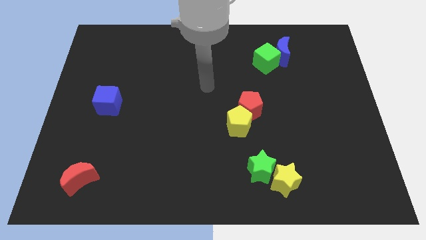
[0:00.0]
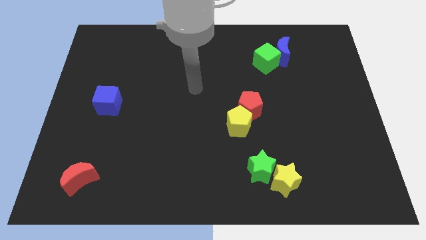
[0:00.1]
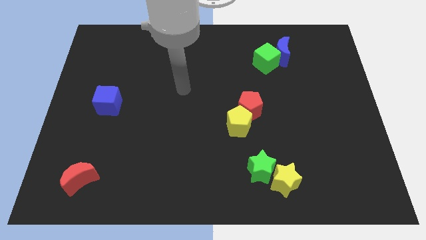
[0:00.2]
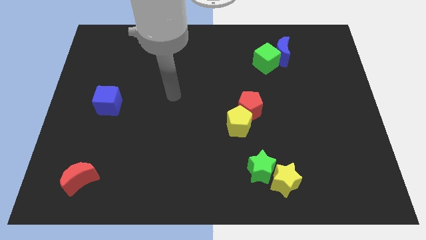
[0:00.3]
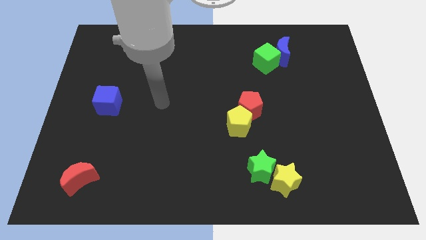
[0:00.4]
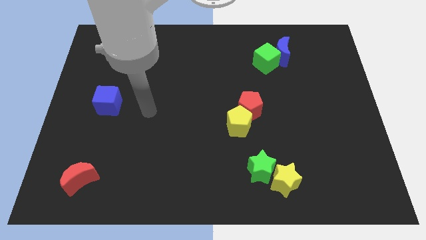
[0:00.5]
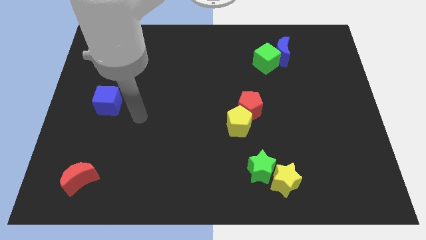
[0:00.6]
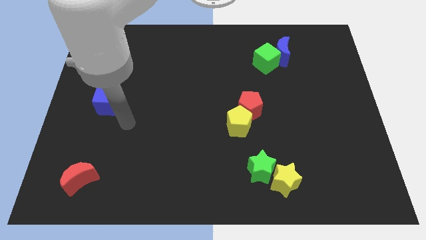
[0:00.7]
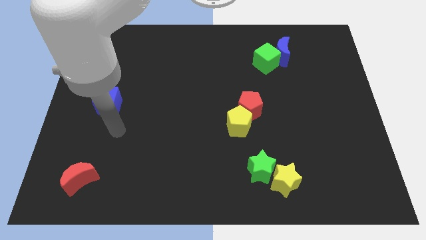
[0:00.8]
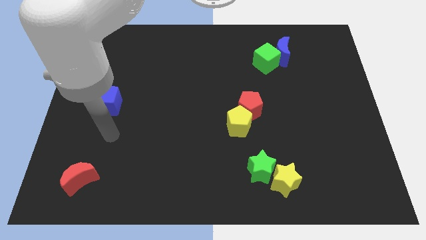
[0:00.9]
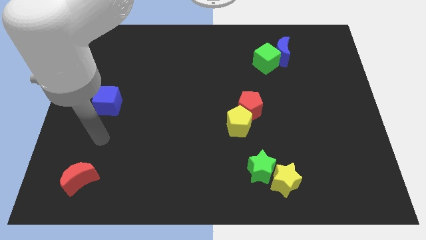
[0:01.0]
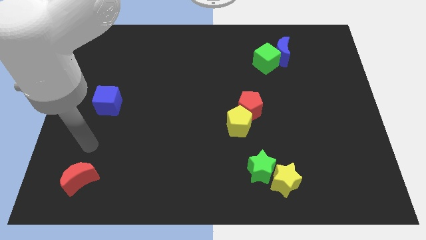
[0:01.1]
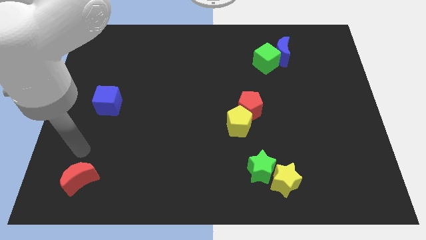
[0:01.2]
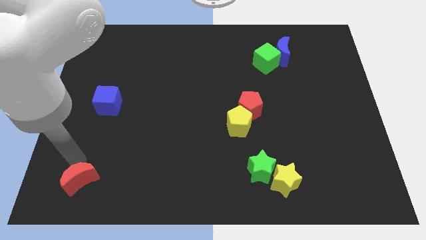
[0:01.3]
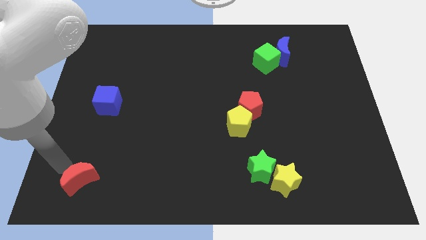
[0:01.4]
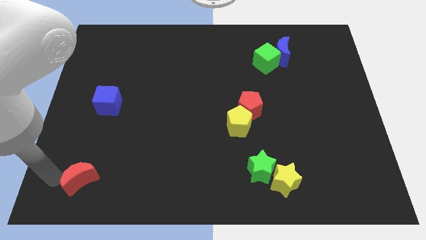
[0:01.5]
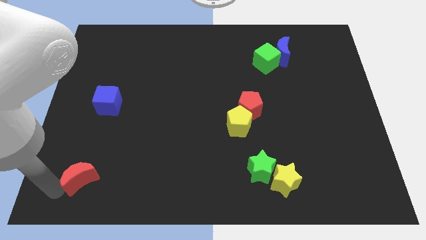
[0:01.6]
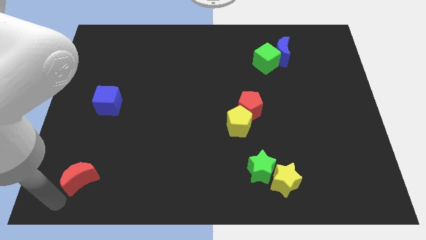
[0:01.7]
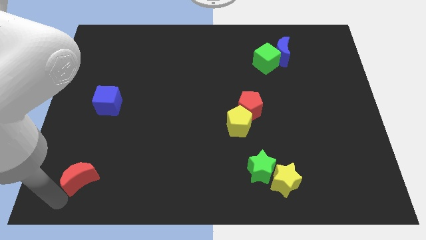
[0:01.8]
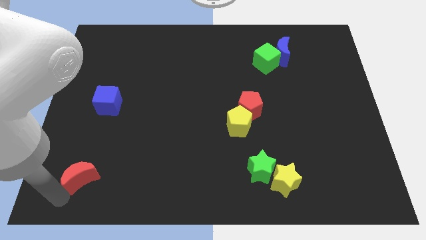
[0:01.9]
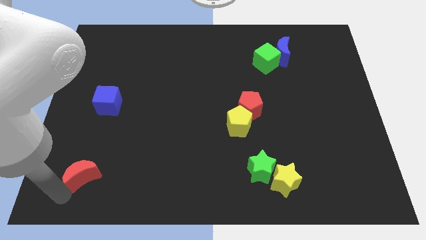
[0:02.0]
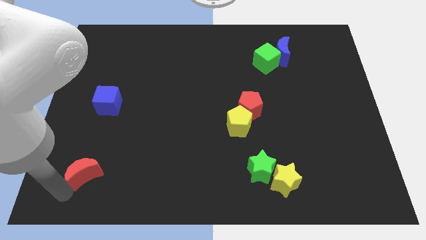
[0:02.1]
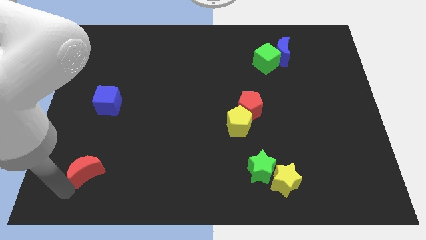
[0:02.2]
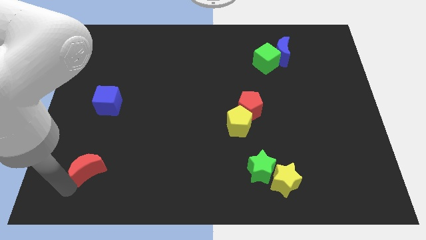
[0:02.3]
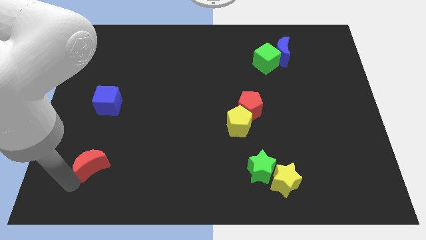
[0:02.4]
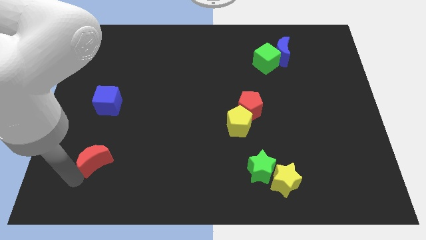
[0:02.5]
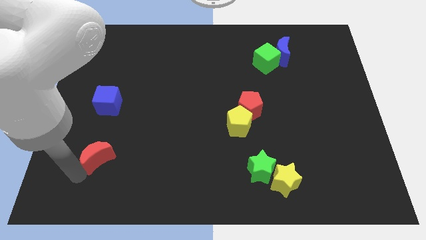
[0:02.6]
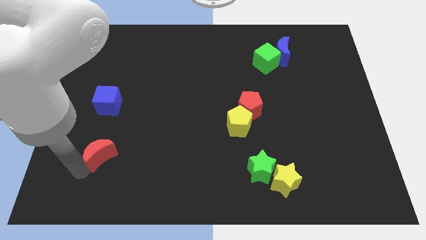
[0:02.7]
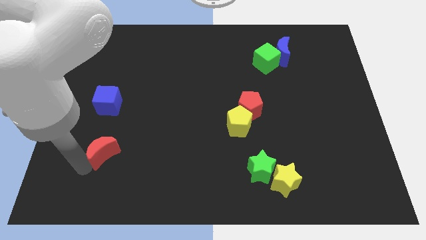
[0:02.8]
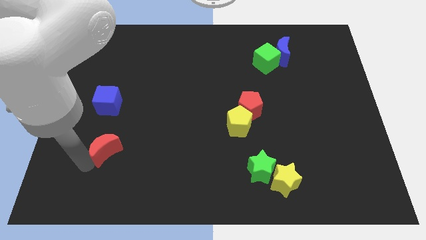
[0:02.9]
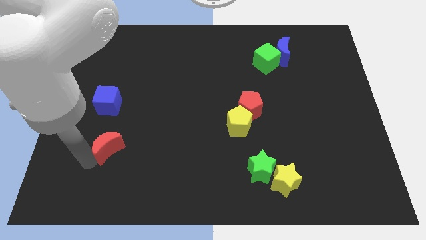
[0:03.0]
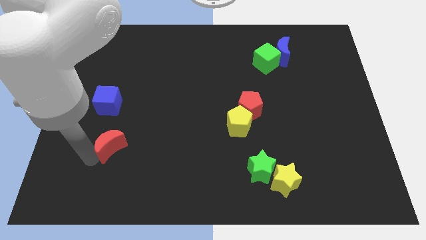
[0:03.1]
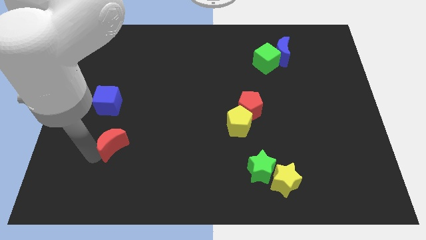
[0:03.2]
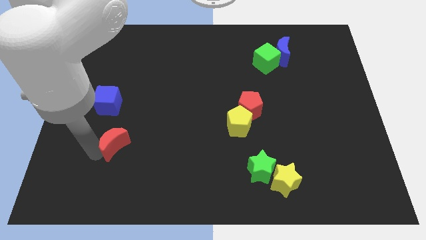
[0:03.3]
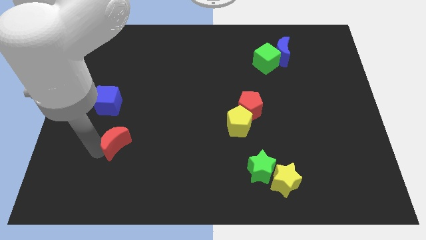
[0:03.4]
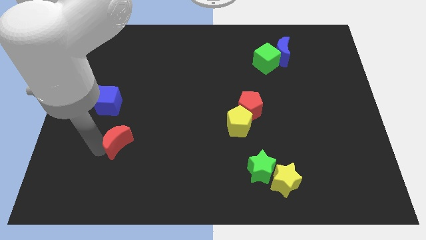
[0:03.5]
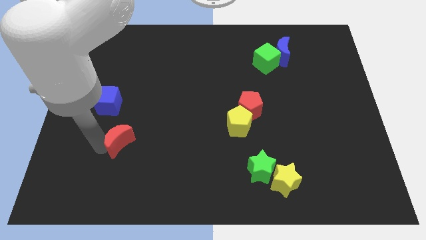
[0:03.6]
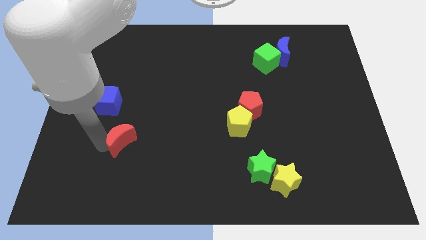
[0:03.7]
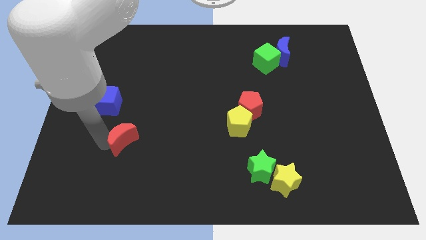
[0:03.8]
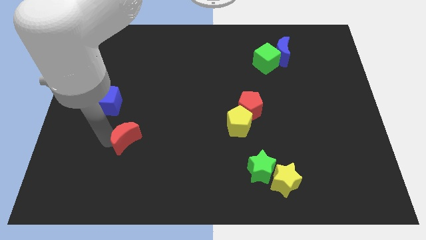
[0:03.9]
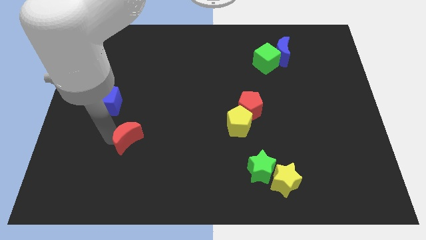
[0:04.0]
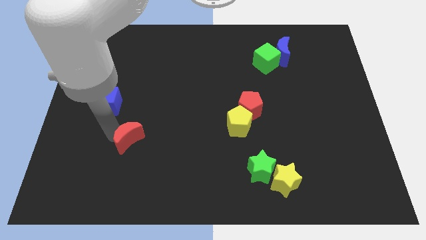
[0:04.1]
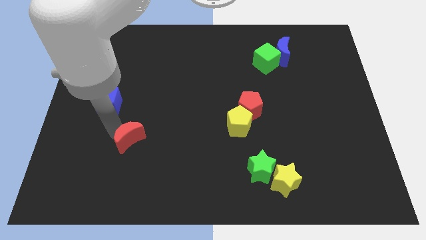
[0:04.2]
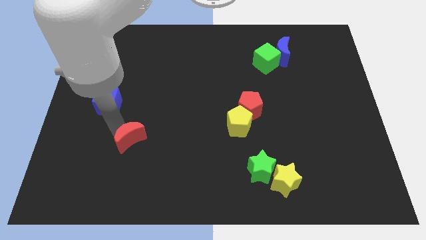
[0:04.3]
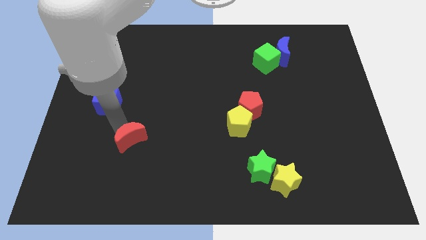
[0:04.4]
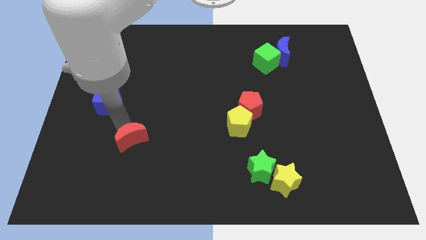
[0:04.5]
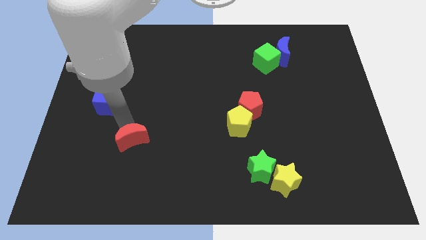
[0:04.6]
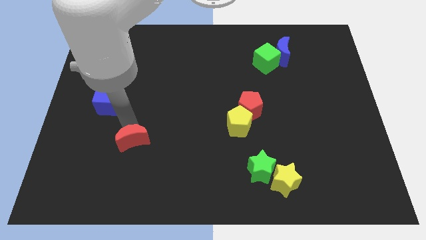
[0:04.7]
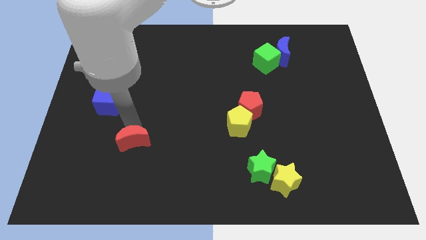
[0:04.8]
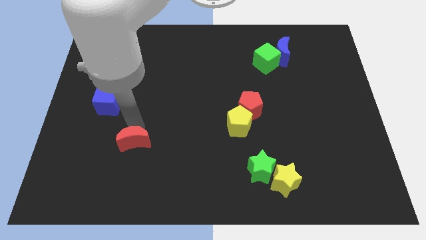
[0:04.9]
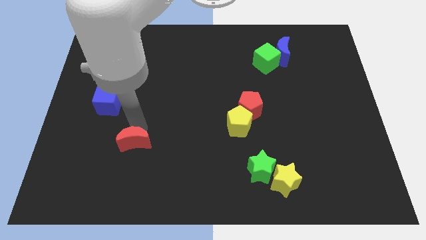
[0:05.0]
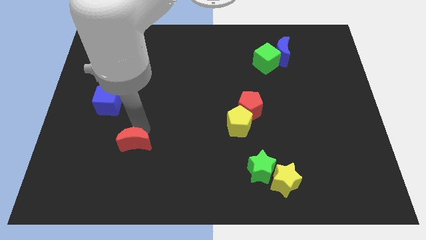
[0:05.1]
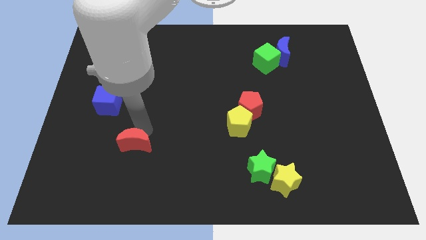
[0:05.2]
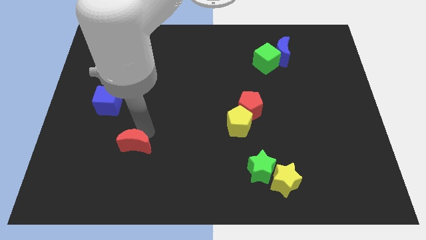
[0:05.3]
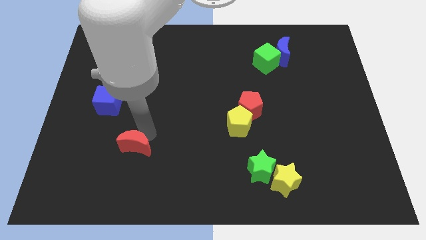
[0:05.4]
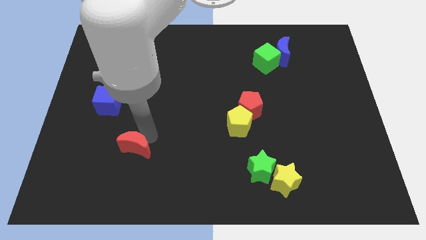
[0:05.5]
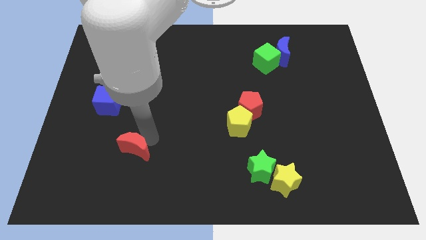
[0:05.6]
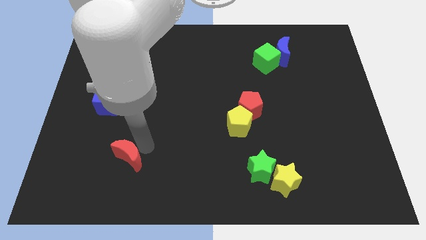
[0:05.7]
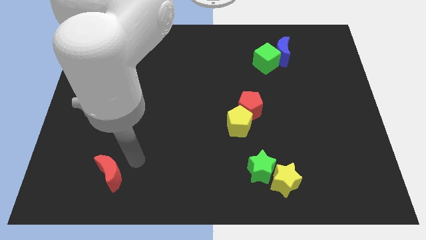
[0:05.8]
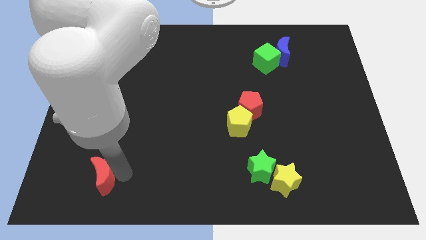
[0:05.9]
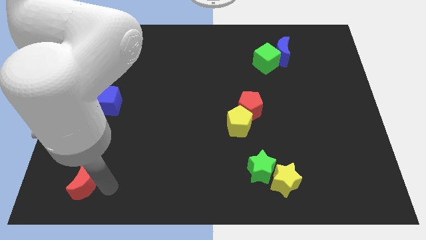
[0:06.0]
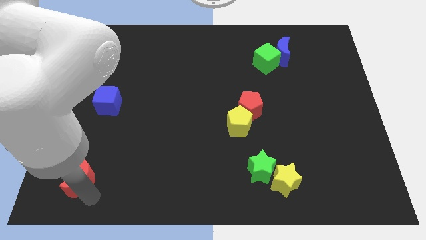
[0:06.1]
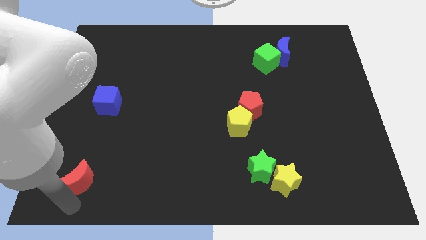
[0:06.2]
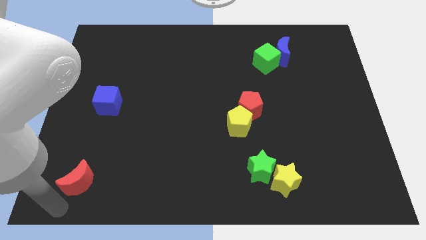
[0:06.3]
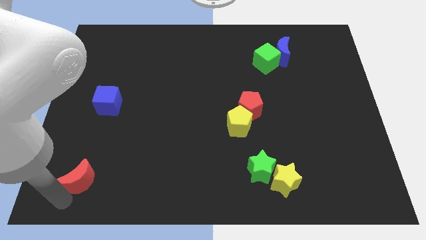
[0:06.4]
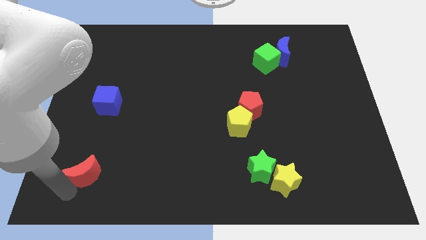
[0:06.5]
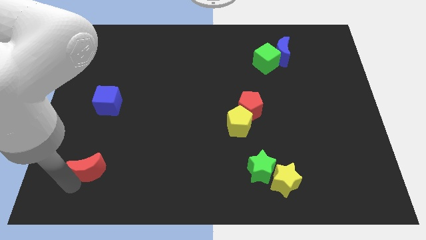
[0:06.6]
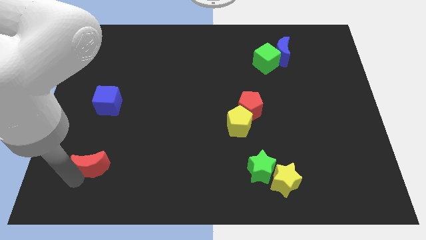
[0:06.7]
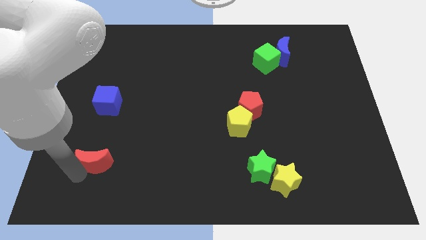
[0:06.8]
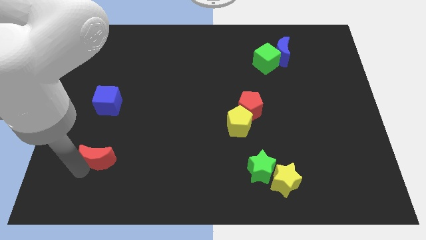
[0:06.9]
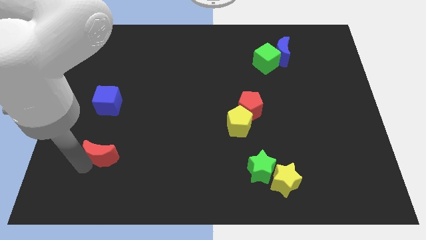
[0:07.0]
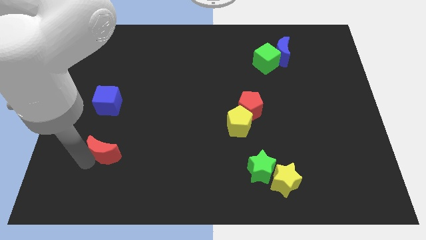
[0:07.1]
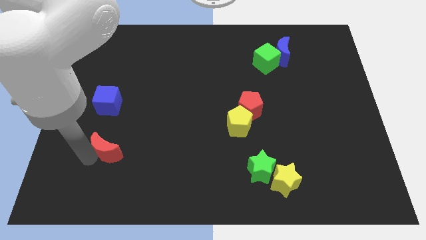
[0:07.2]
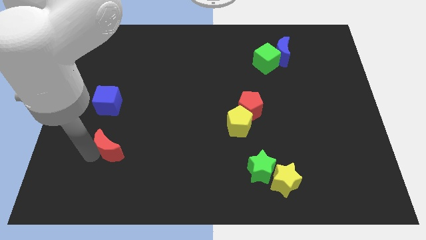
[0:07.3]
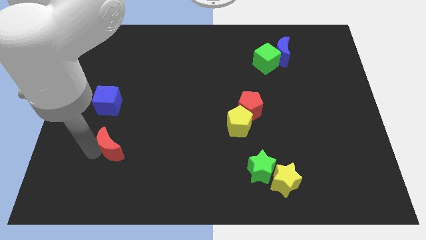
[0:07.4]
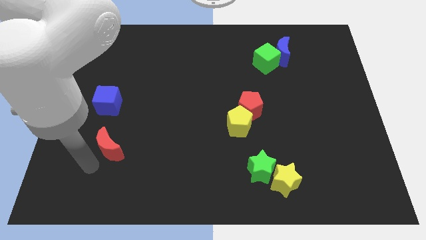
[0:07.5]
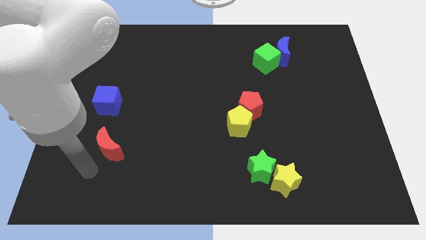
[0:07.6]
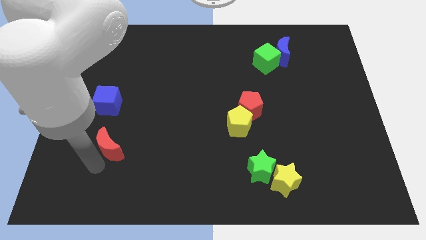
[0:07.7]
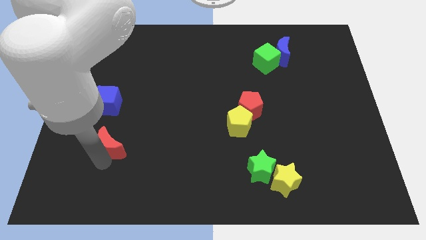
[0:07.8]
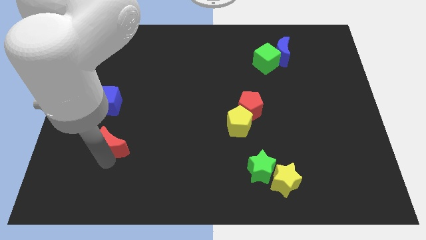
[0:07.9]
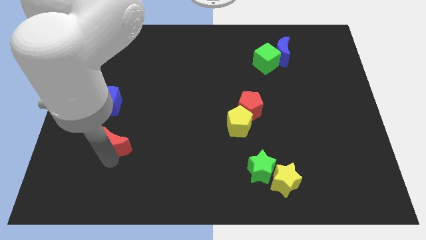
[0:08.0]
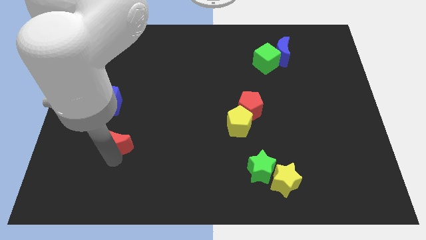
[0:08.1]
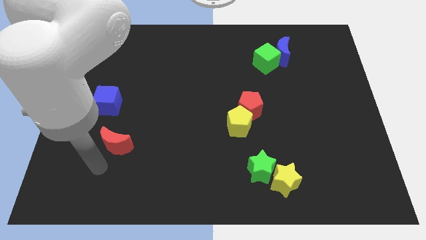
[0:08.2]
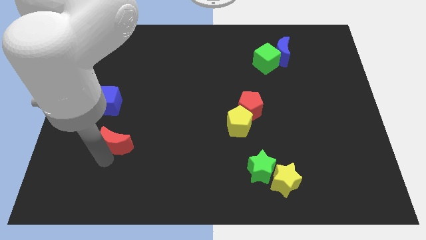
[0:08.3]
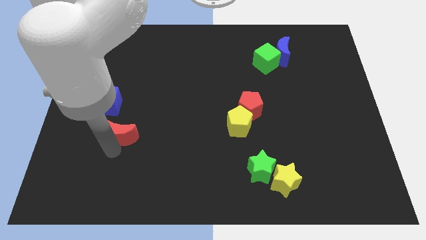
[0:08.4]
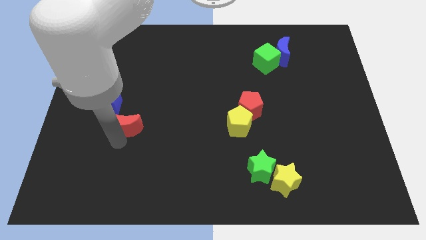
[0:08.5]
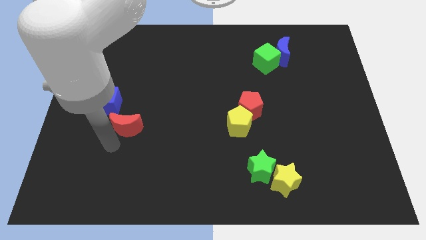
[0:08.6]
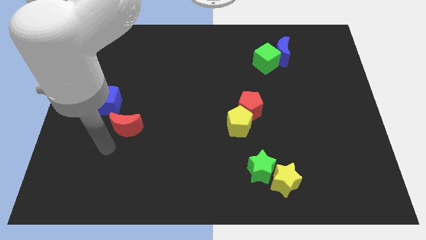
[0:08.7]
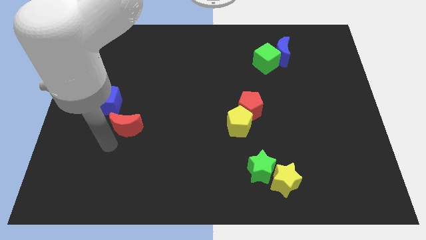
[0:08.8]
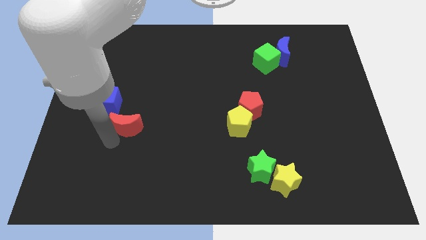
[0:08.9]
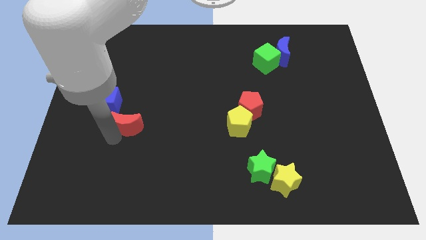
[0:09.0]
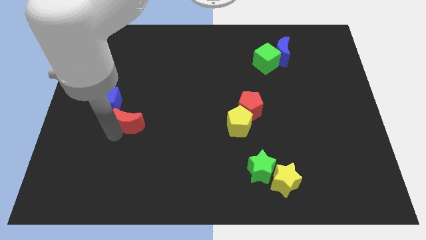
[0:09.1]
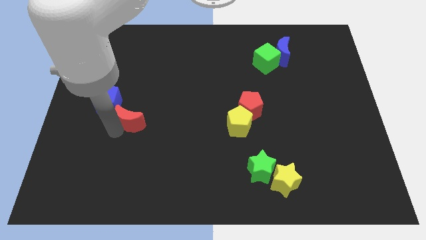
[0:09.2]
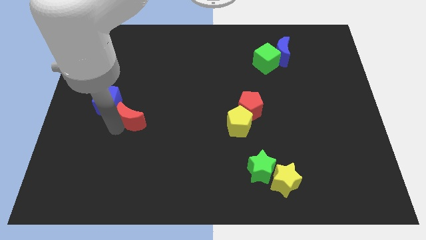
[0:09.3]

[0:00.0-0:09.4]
push the red moon right of the blue cube
